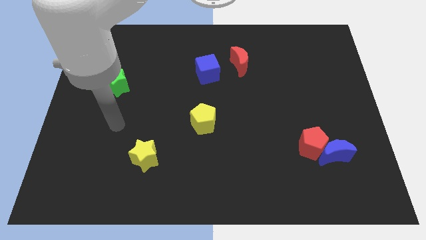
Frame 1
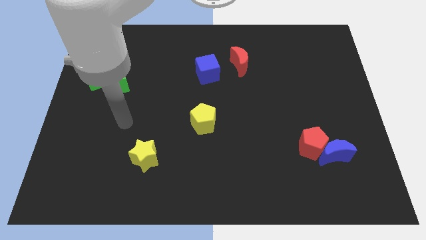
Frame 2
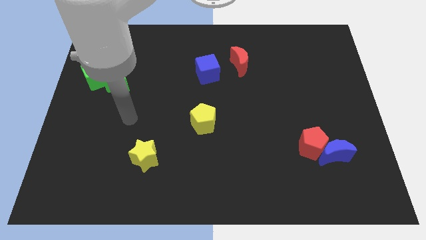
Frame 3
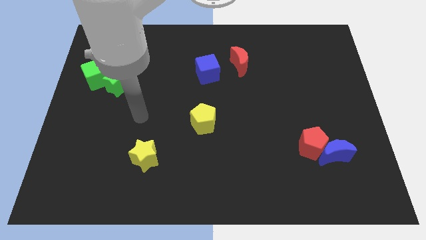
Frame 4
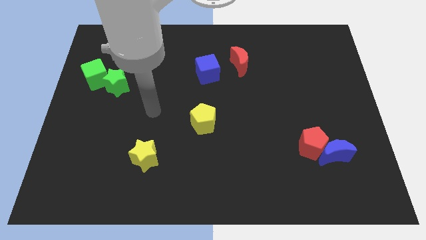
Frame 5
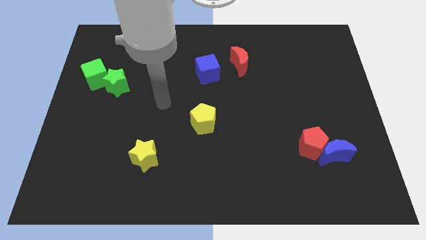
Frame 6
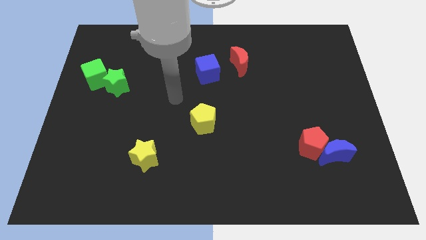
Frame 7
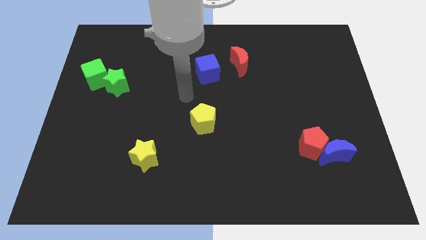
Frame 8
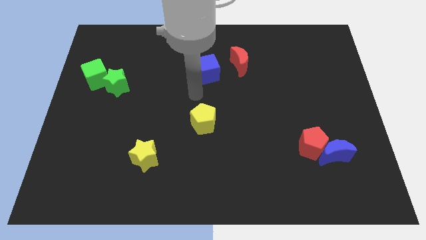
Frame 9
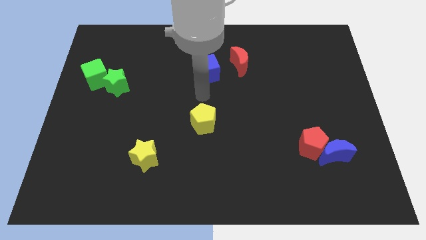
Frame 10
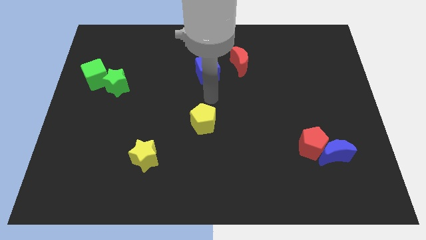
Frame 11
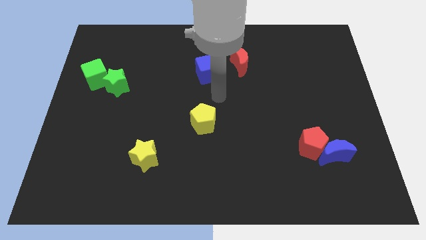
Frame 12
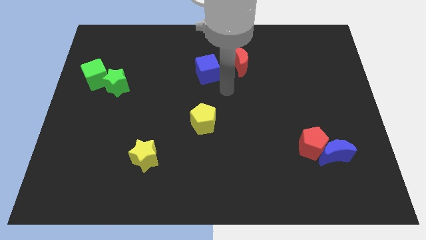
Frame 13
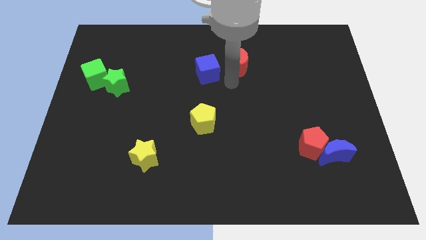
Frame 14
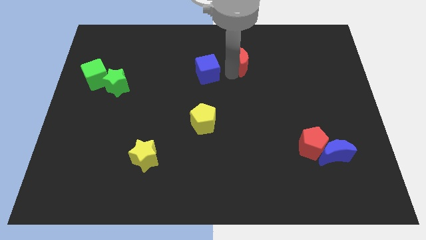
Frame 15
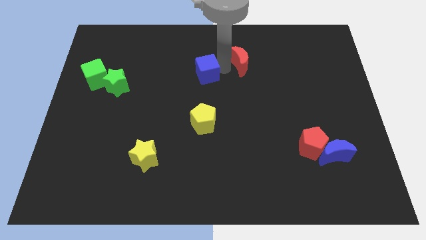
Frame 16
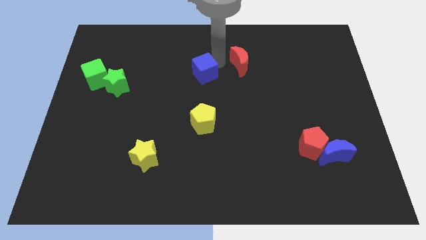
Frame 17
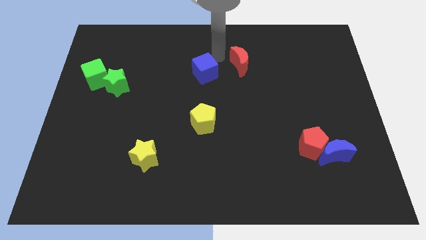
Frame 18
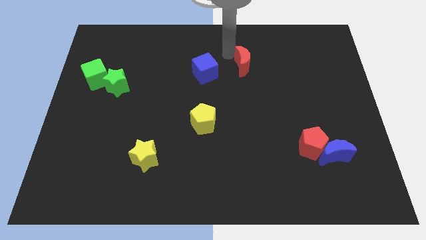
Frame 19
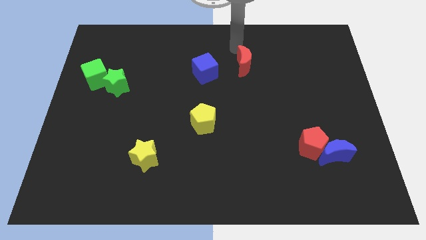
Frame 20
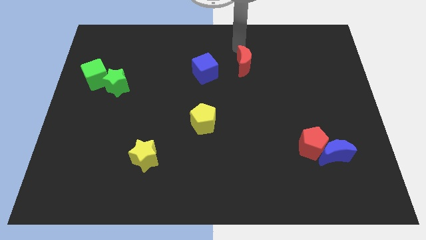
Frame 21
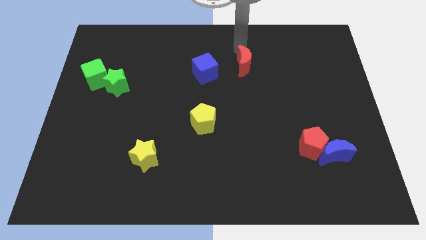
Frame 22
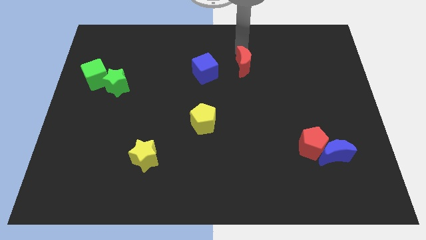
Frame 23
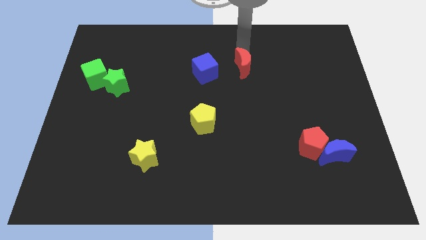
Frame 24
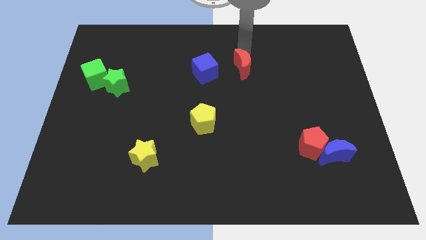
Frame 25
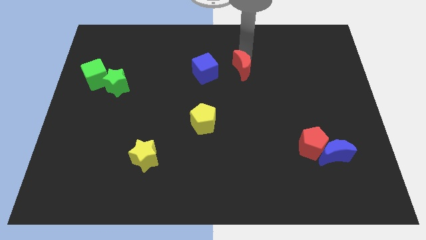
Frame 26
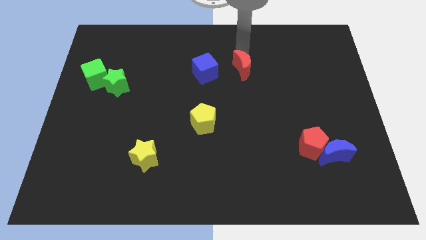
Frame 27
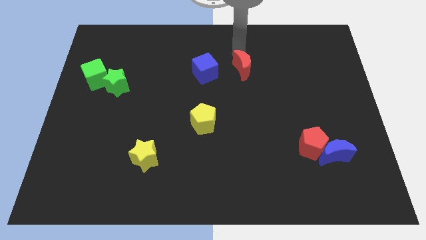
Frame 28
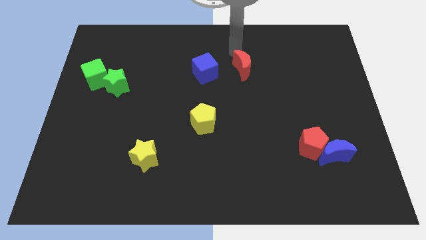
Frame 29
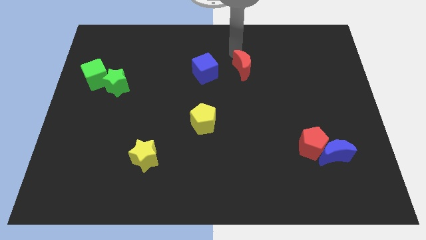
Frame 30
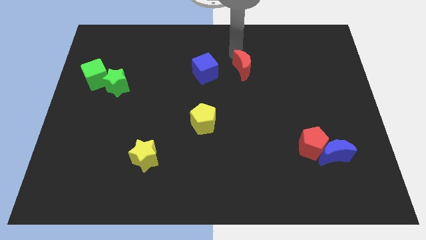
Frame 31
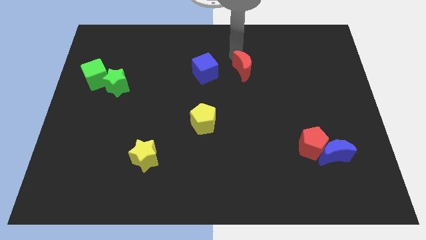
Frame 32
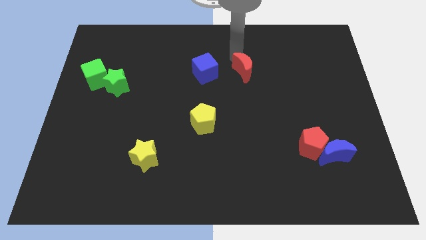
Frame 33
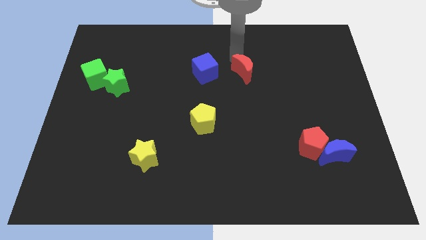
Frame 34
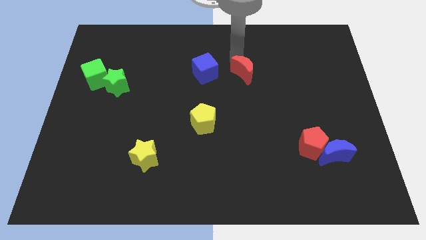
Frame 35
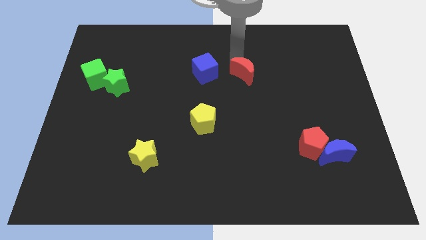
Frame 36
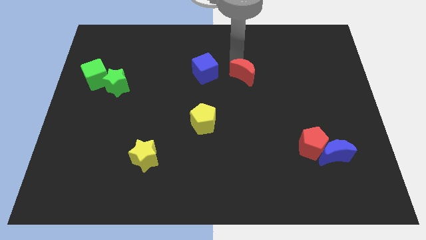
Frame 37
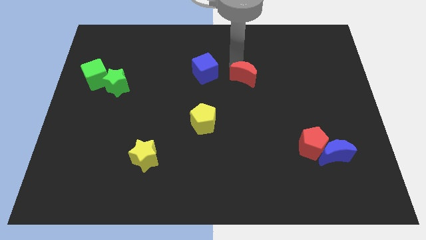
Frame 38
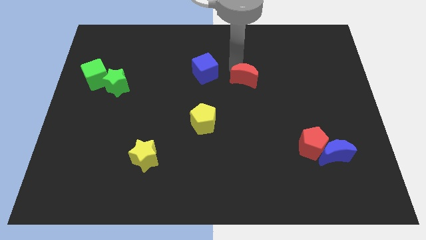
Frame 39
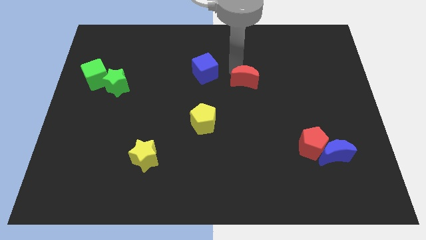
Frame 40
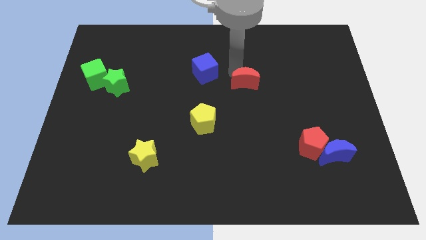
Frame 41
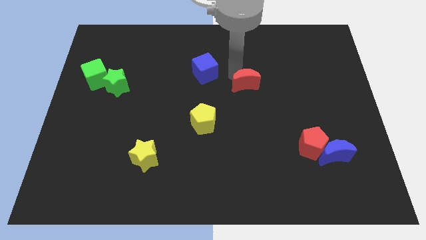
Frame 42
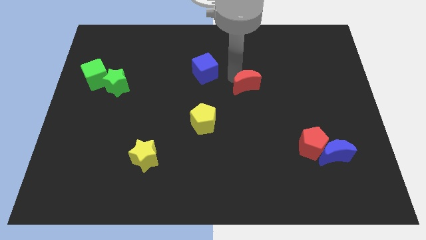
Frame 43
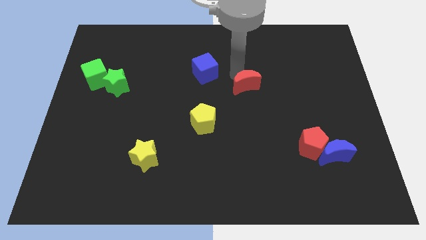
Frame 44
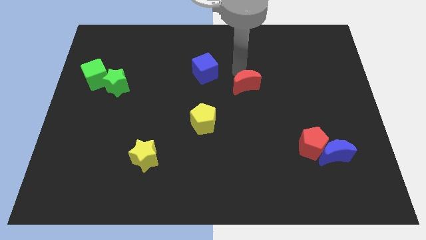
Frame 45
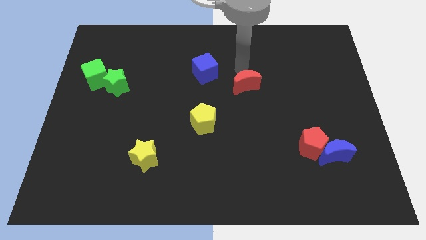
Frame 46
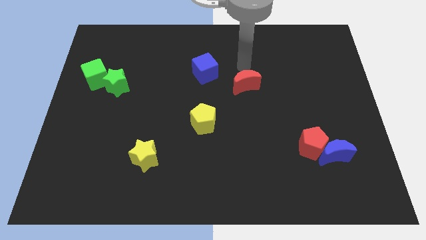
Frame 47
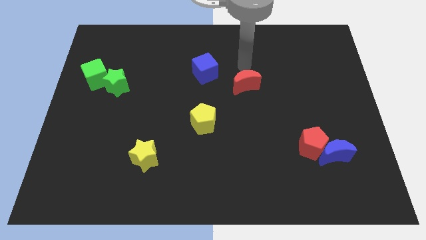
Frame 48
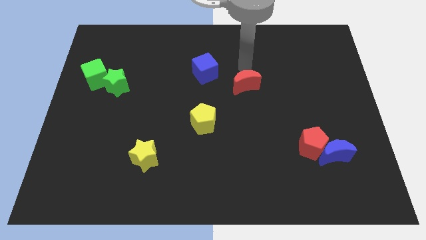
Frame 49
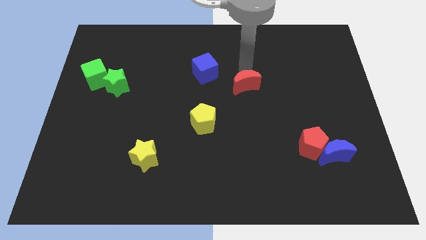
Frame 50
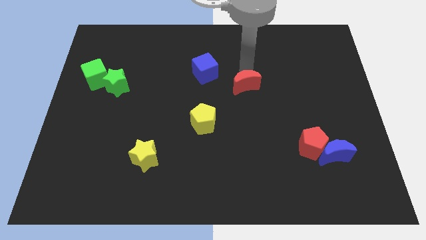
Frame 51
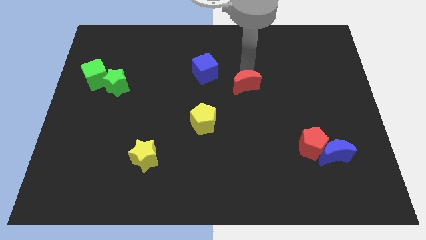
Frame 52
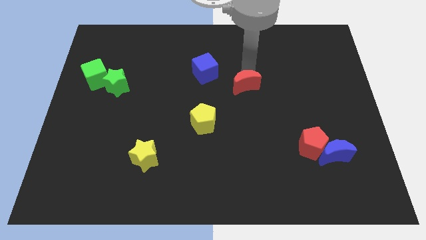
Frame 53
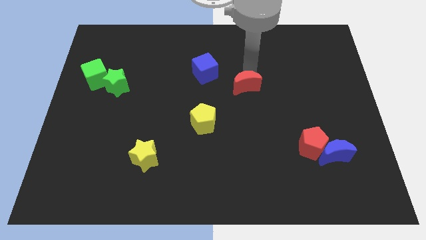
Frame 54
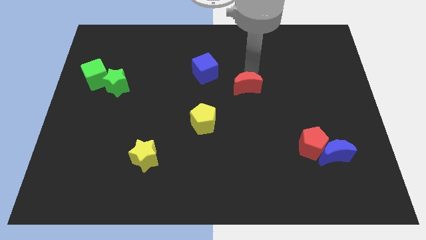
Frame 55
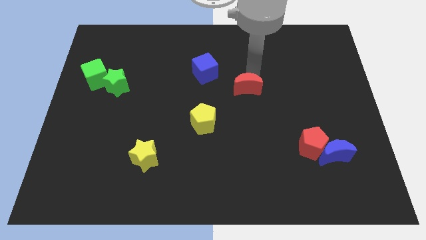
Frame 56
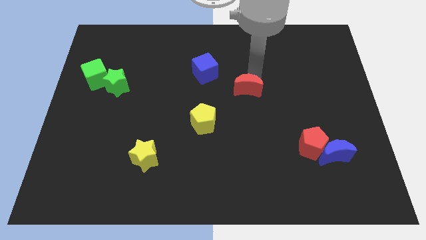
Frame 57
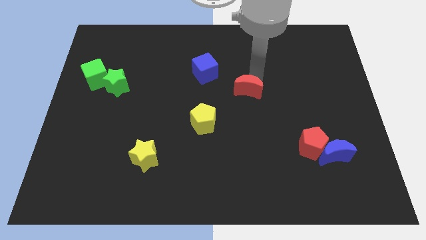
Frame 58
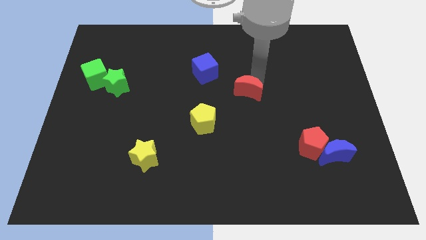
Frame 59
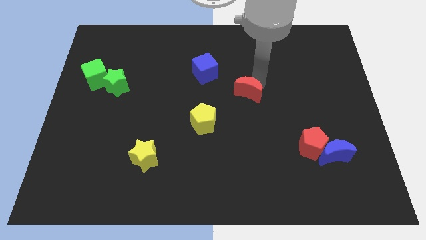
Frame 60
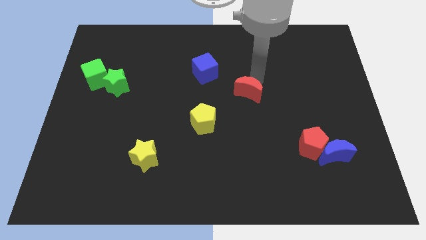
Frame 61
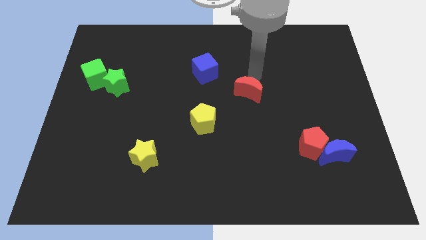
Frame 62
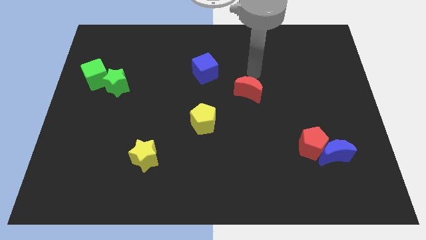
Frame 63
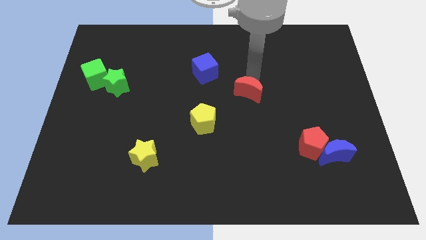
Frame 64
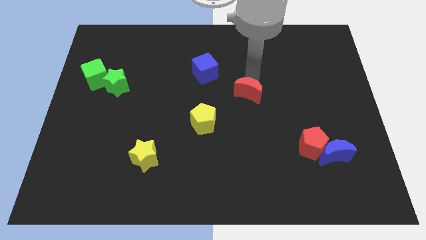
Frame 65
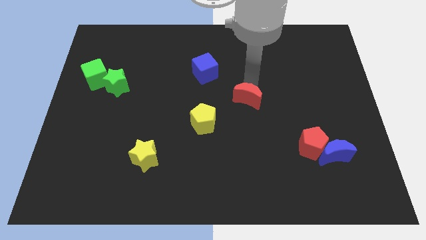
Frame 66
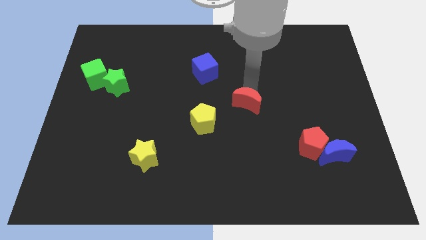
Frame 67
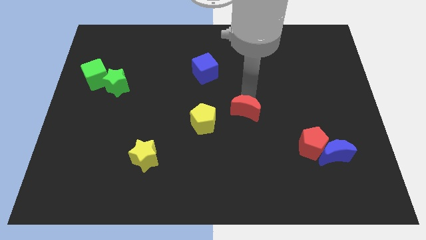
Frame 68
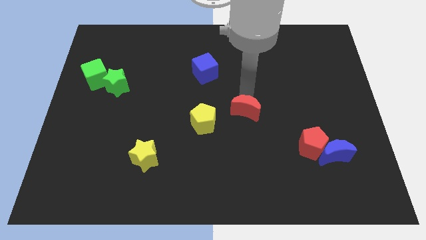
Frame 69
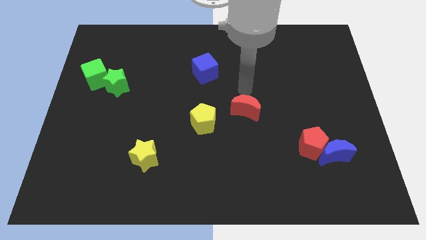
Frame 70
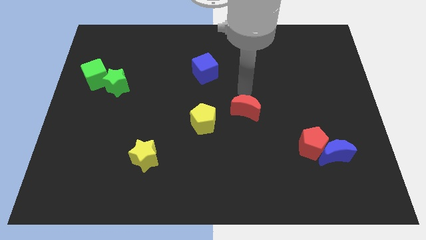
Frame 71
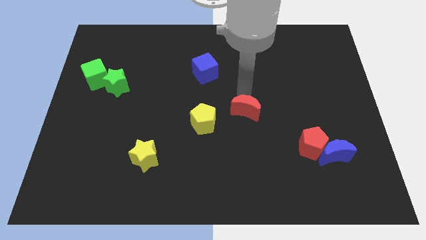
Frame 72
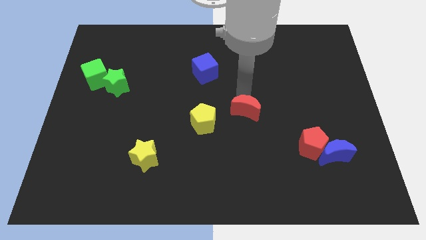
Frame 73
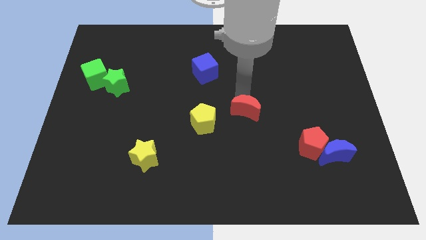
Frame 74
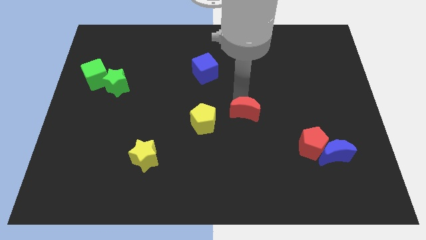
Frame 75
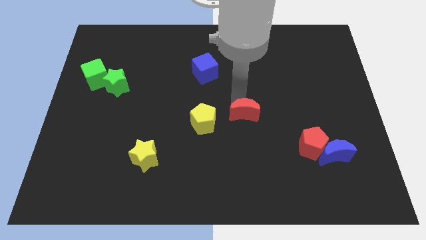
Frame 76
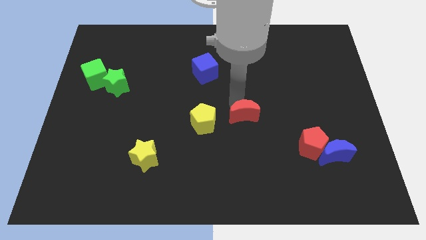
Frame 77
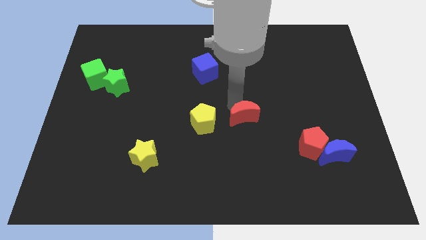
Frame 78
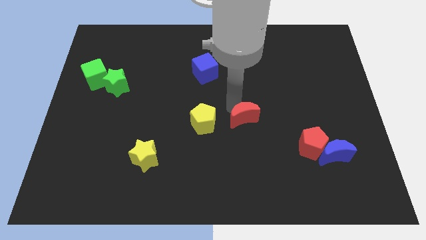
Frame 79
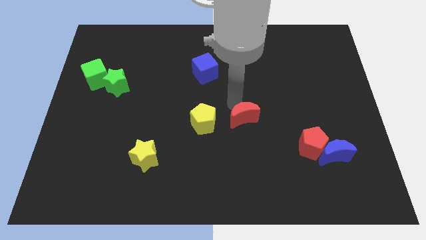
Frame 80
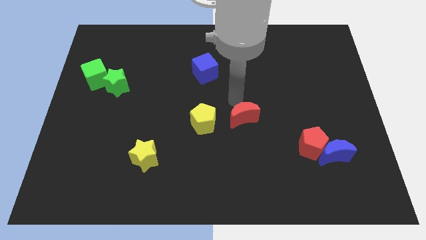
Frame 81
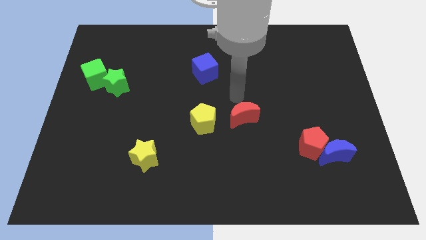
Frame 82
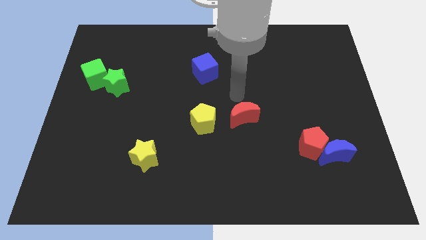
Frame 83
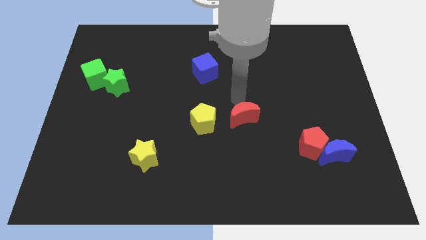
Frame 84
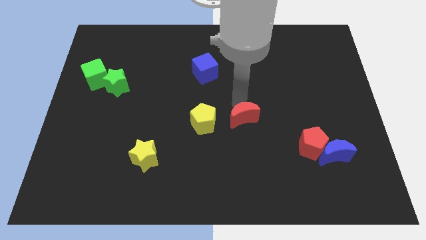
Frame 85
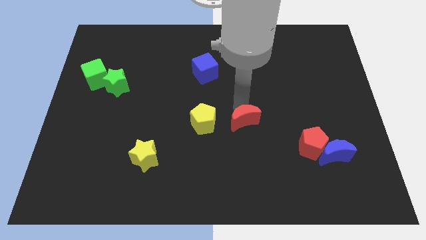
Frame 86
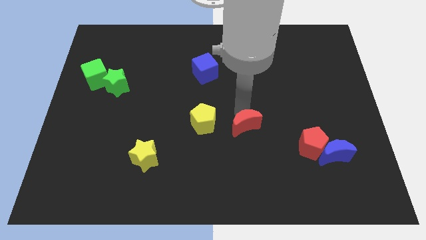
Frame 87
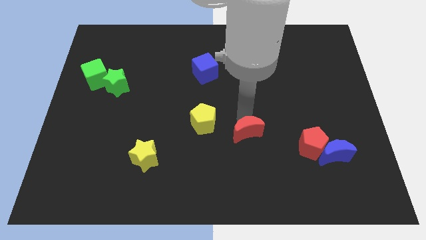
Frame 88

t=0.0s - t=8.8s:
push the red moon downwards
